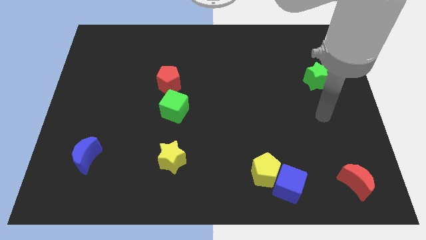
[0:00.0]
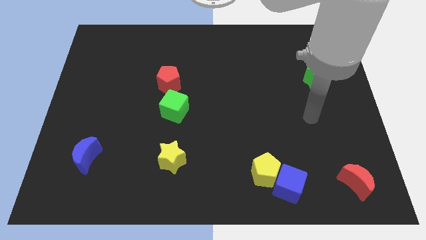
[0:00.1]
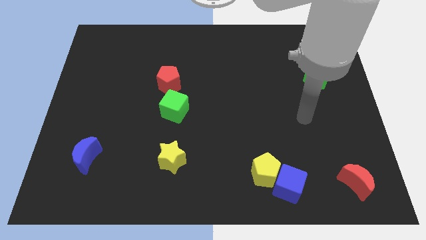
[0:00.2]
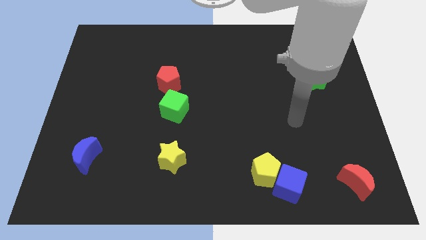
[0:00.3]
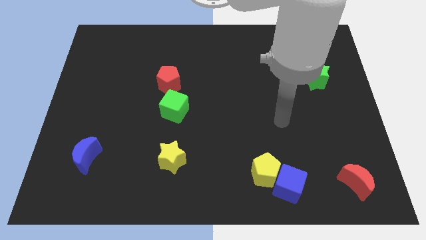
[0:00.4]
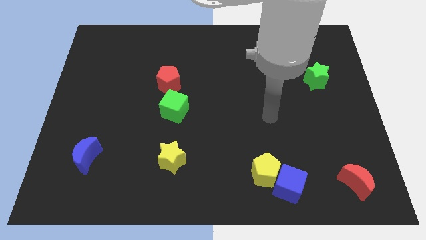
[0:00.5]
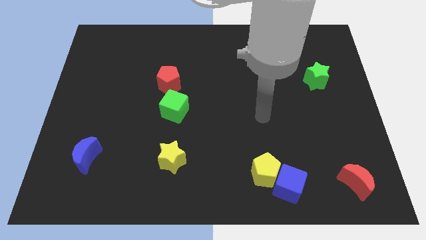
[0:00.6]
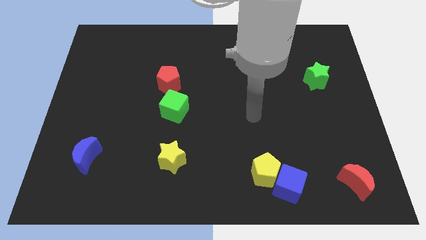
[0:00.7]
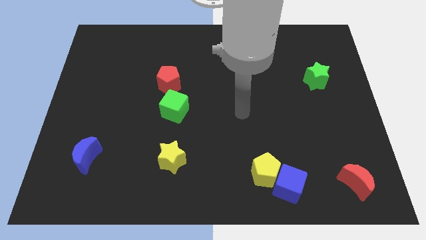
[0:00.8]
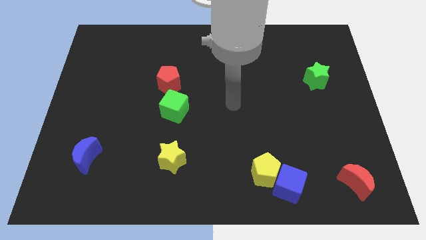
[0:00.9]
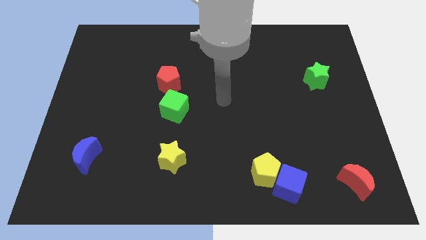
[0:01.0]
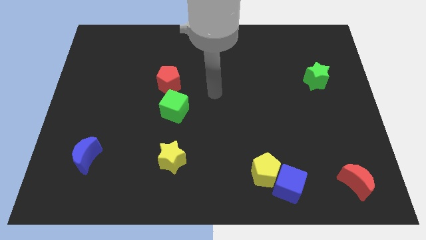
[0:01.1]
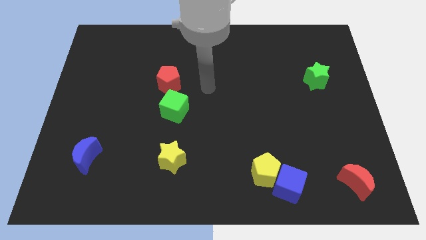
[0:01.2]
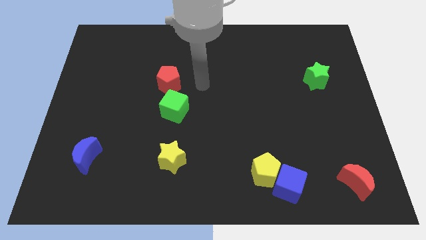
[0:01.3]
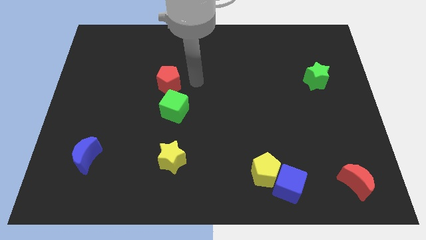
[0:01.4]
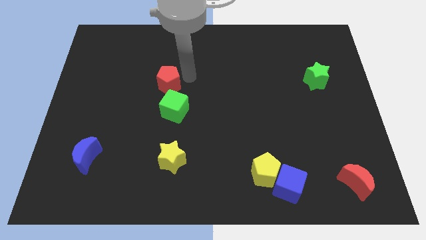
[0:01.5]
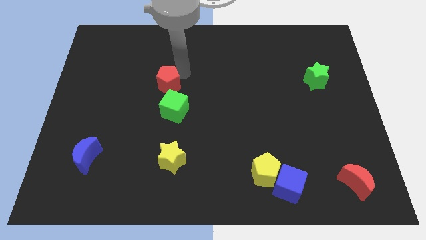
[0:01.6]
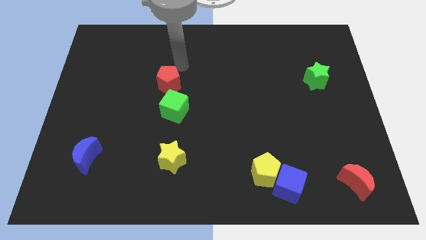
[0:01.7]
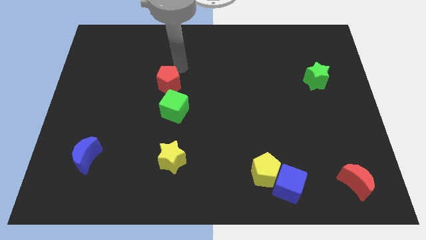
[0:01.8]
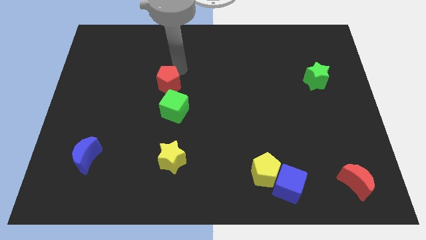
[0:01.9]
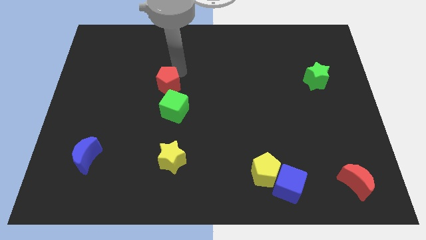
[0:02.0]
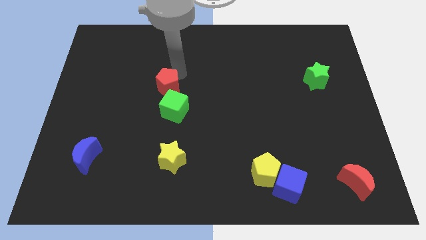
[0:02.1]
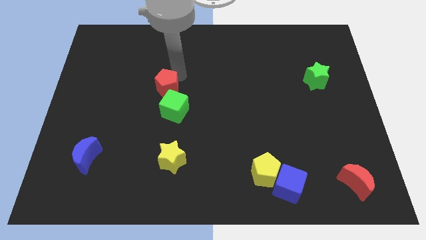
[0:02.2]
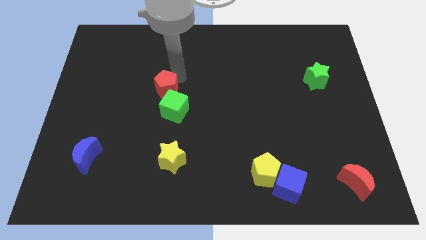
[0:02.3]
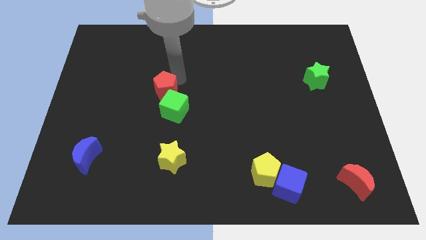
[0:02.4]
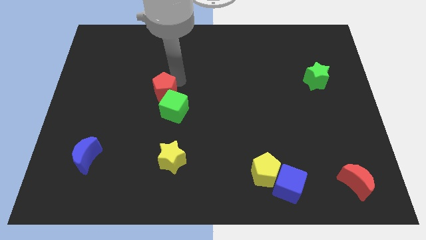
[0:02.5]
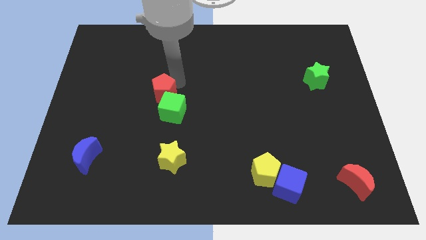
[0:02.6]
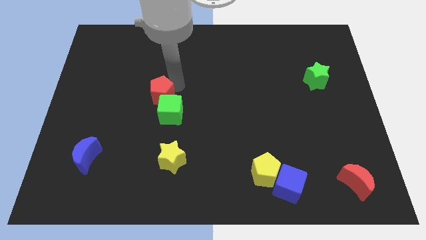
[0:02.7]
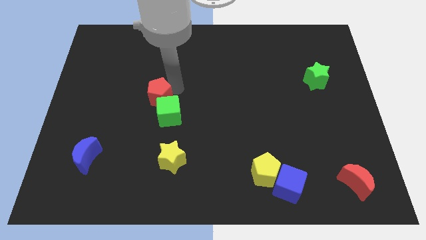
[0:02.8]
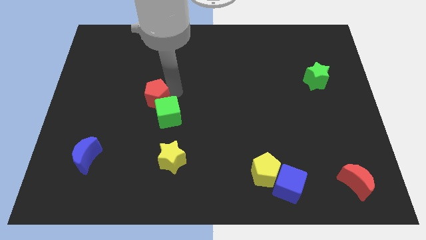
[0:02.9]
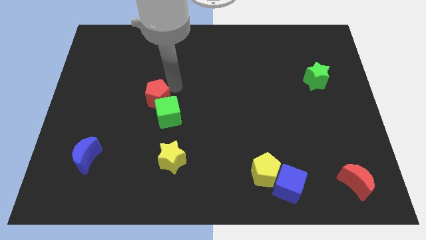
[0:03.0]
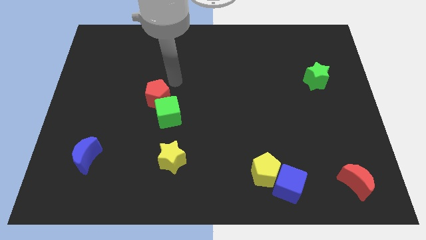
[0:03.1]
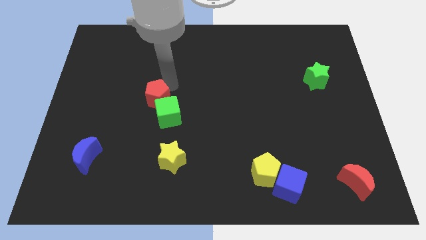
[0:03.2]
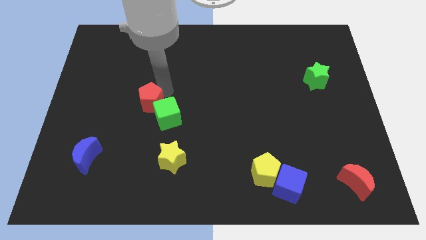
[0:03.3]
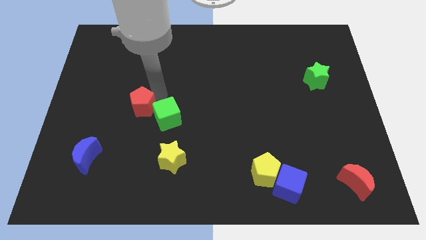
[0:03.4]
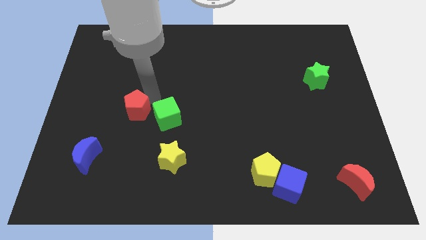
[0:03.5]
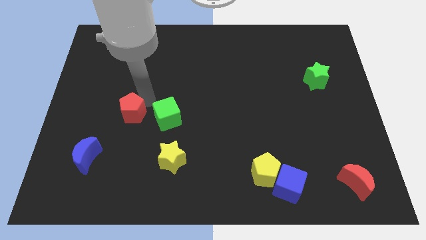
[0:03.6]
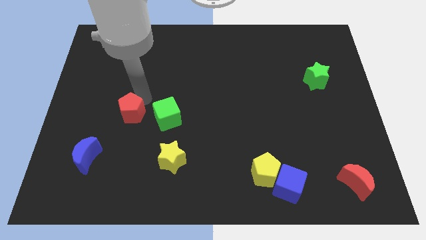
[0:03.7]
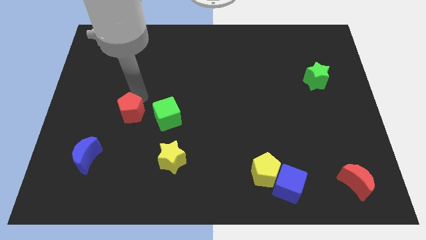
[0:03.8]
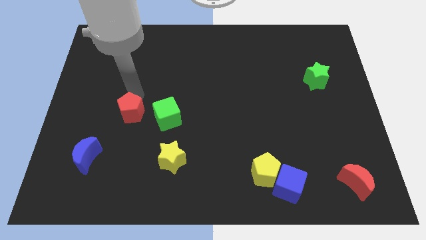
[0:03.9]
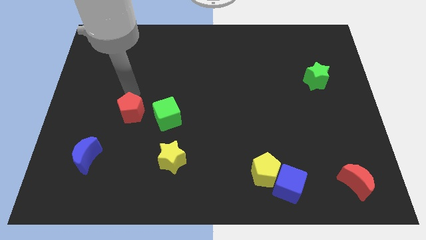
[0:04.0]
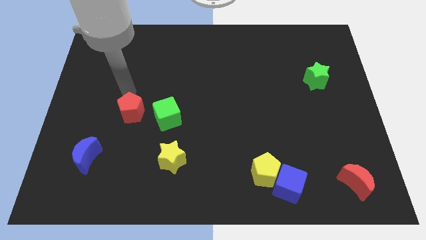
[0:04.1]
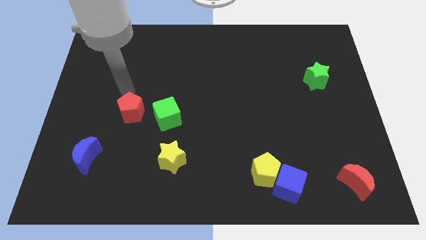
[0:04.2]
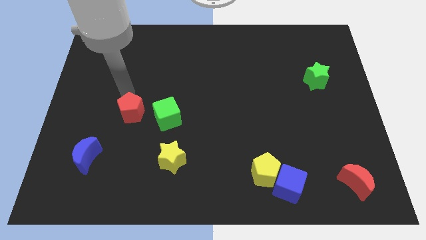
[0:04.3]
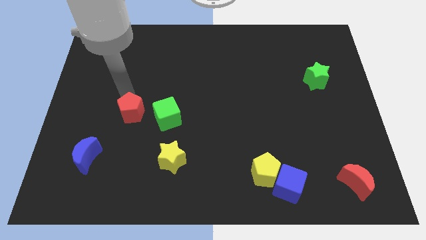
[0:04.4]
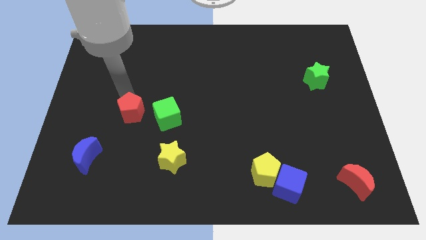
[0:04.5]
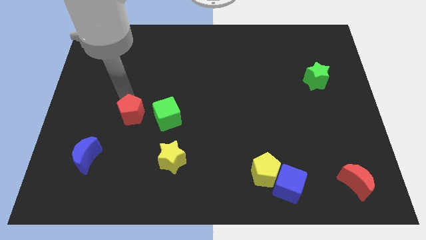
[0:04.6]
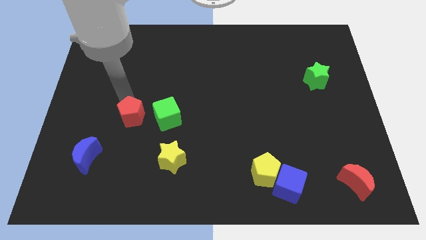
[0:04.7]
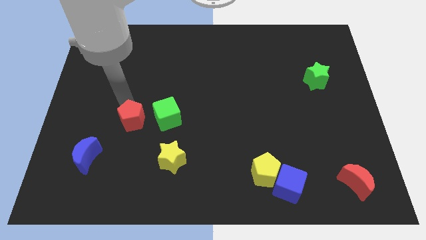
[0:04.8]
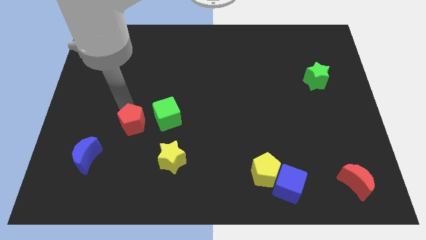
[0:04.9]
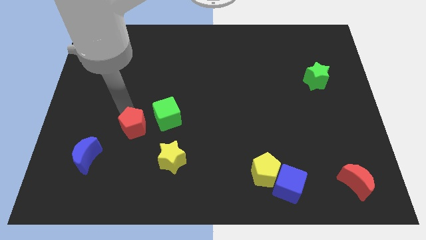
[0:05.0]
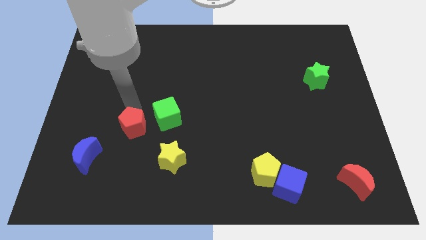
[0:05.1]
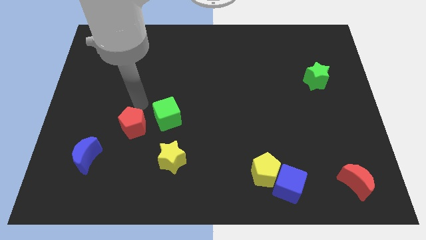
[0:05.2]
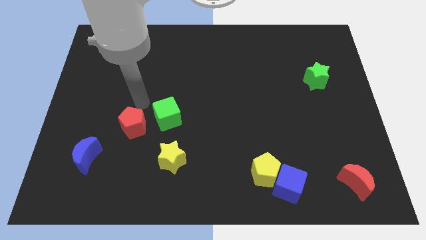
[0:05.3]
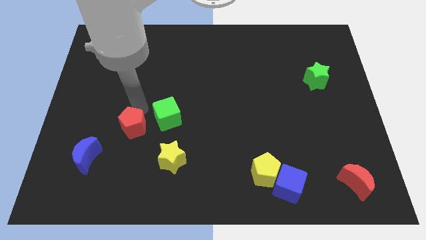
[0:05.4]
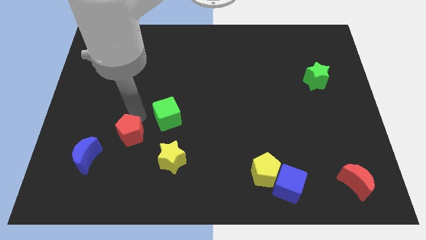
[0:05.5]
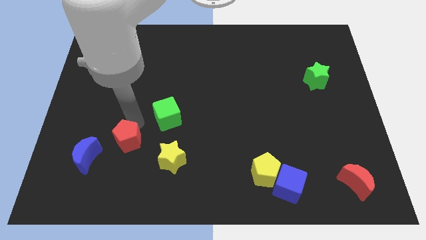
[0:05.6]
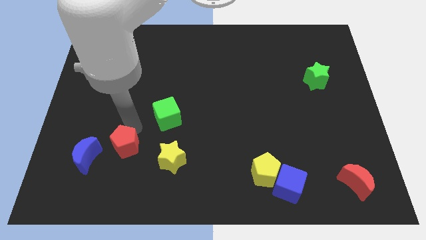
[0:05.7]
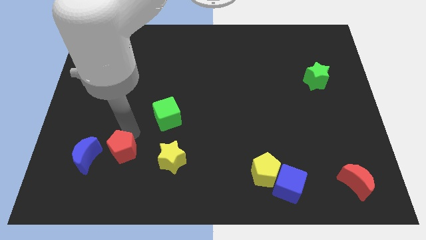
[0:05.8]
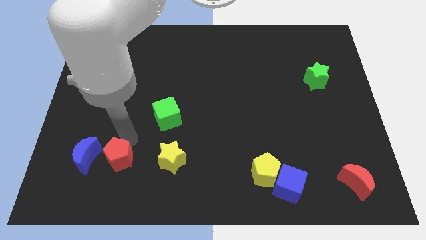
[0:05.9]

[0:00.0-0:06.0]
put the red pentagon diagonally down and to the right of the blue moon

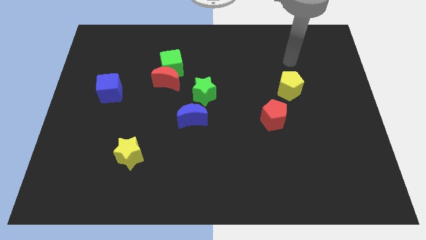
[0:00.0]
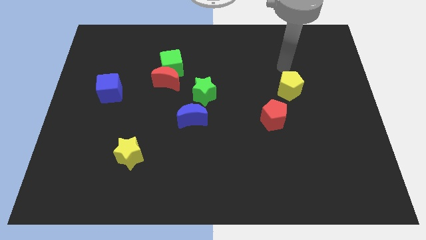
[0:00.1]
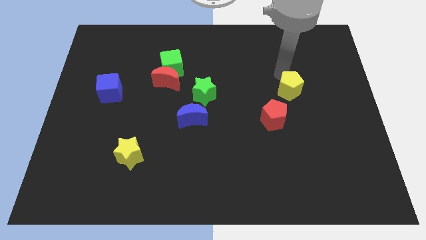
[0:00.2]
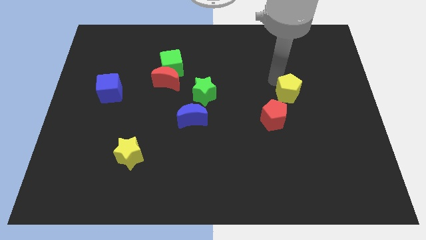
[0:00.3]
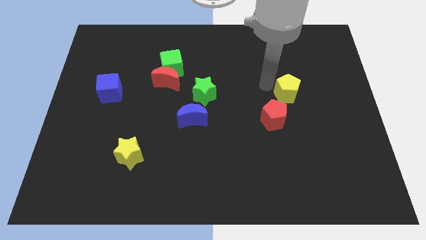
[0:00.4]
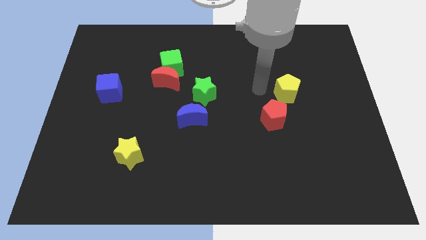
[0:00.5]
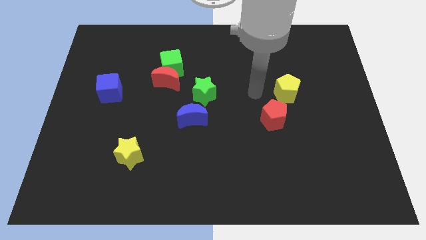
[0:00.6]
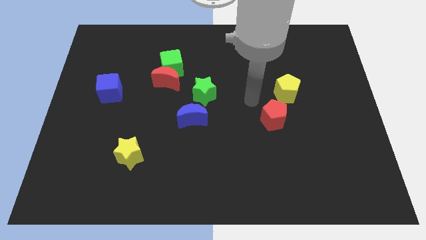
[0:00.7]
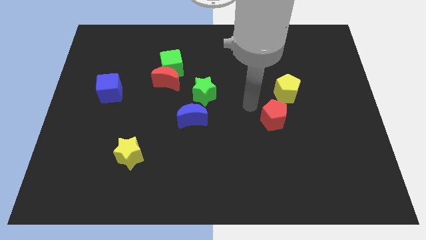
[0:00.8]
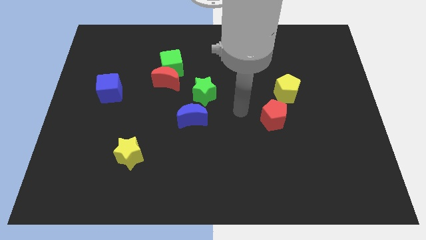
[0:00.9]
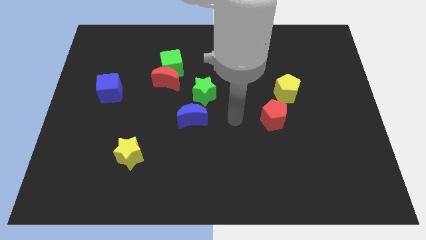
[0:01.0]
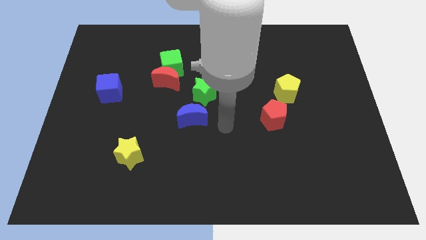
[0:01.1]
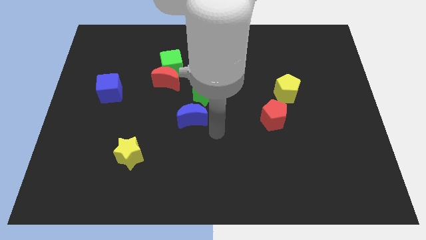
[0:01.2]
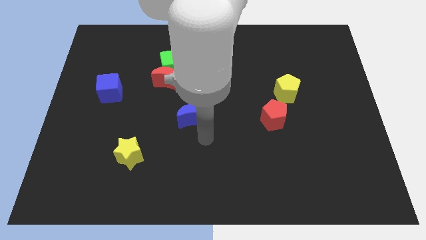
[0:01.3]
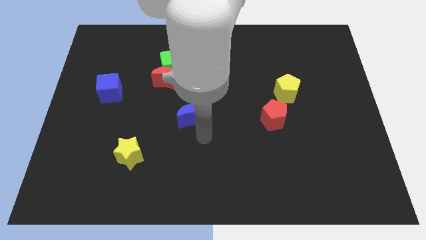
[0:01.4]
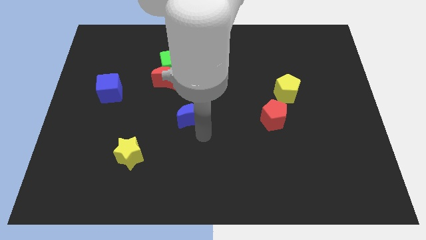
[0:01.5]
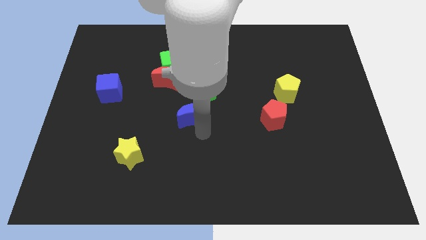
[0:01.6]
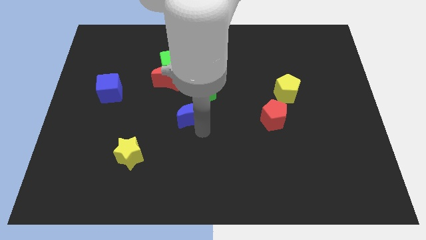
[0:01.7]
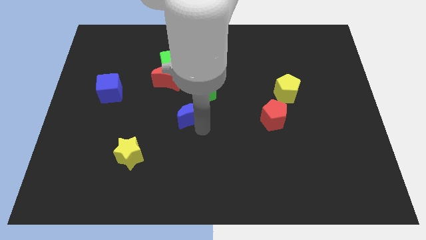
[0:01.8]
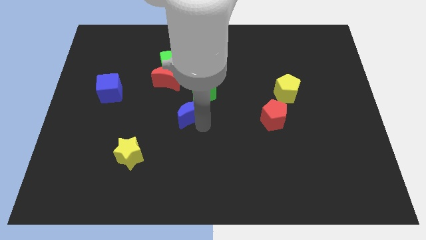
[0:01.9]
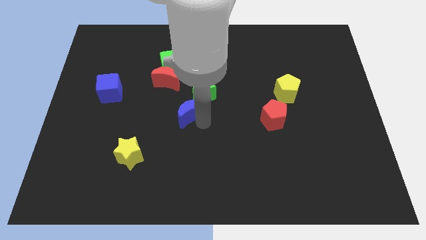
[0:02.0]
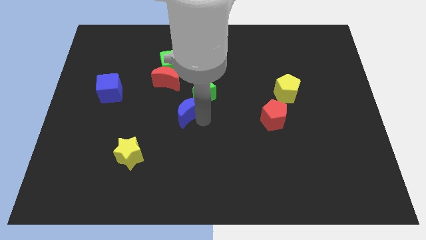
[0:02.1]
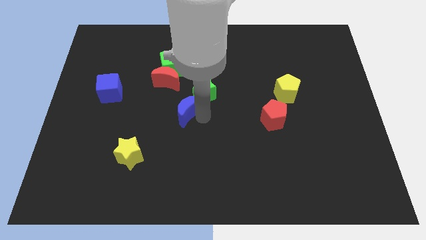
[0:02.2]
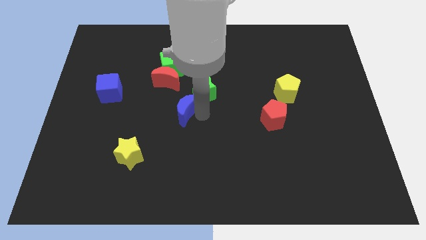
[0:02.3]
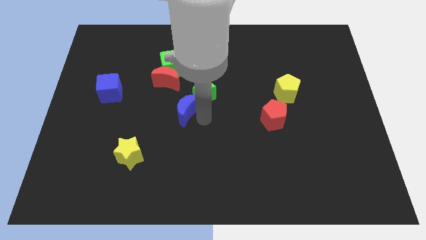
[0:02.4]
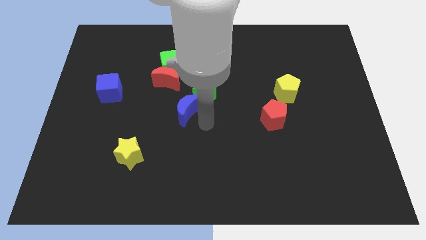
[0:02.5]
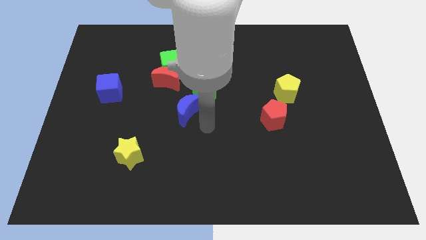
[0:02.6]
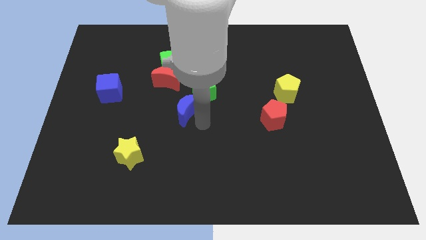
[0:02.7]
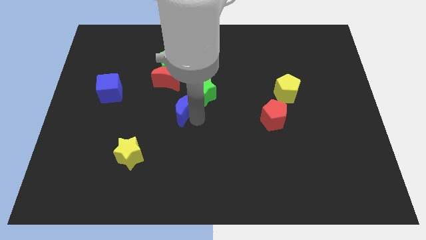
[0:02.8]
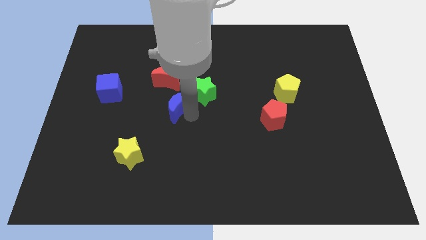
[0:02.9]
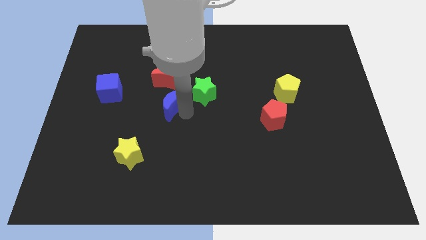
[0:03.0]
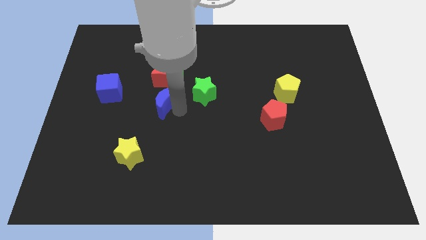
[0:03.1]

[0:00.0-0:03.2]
slide the blue moon just right of the blue cube
